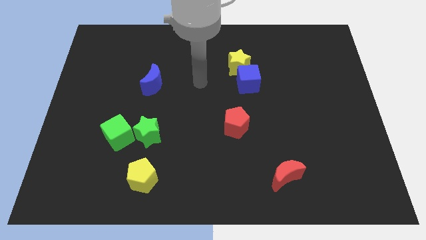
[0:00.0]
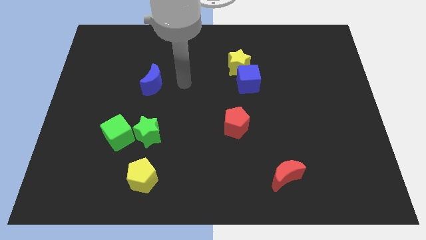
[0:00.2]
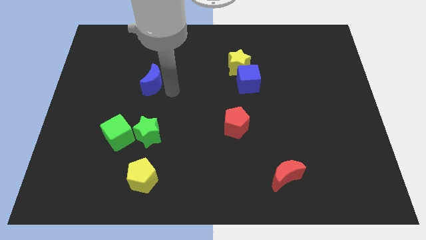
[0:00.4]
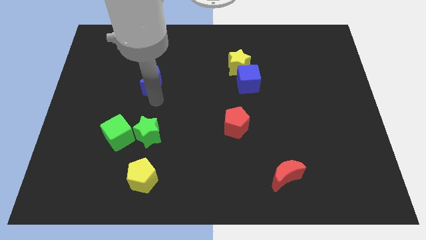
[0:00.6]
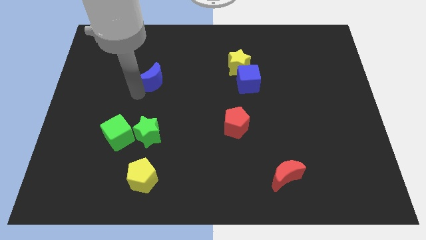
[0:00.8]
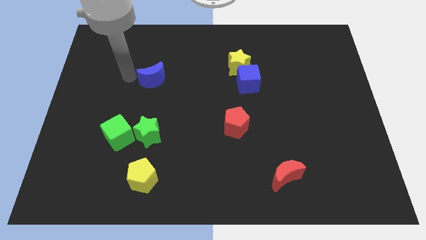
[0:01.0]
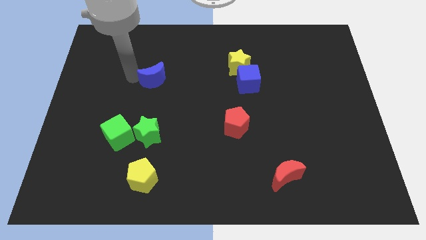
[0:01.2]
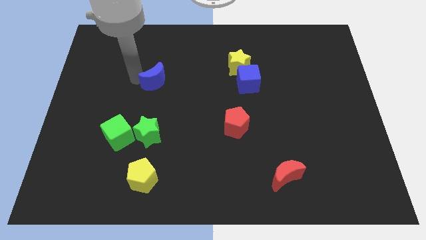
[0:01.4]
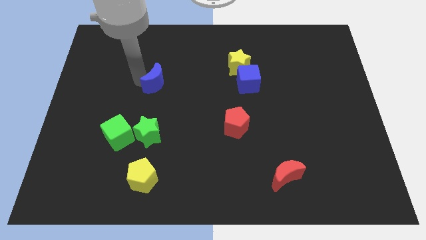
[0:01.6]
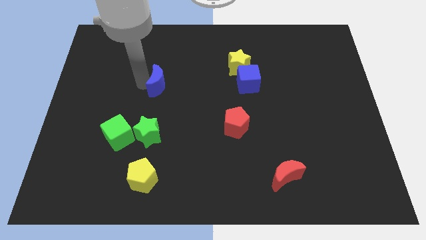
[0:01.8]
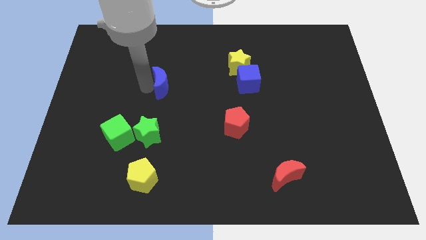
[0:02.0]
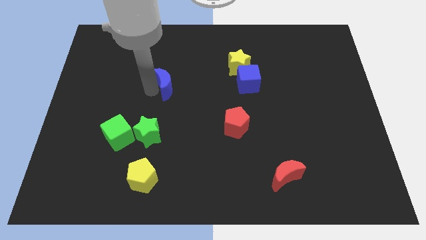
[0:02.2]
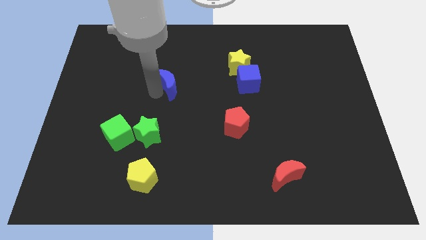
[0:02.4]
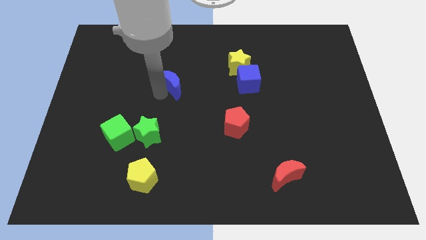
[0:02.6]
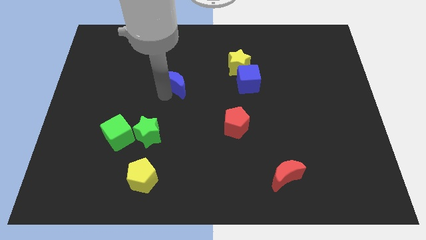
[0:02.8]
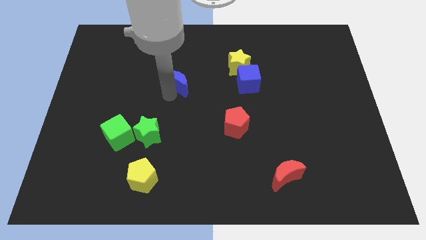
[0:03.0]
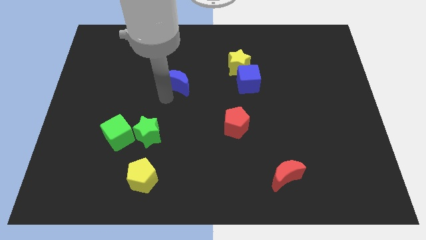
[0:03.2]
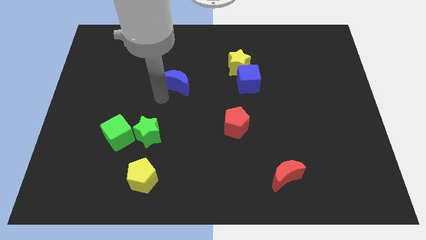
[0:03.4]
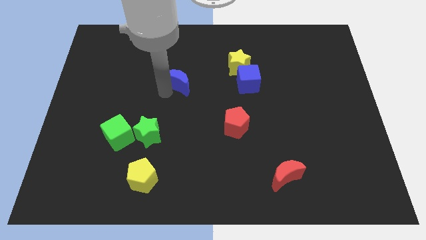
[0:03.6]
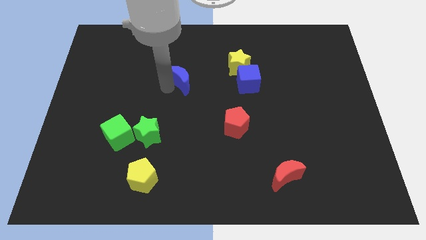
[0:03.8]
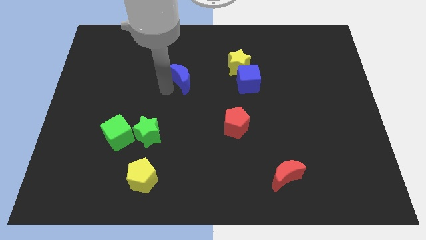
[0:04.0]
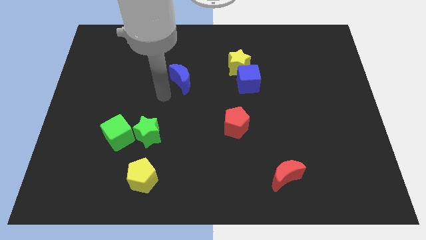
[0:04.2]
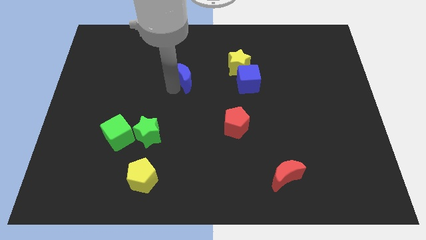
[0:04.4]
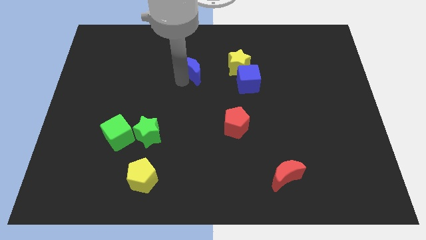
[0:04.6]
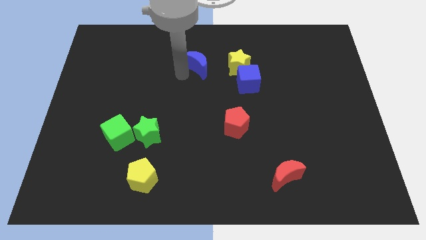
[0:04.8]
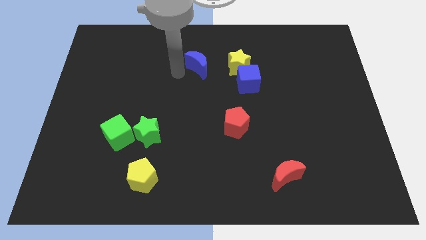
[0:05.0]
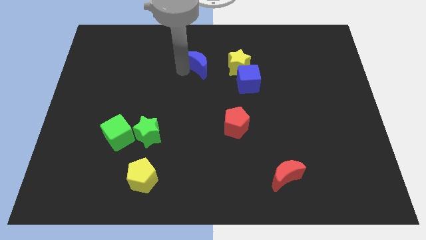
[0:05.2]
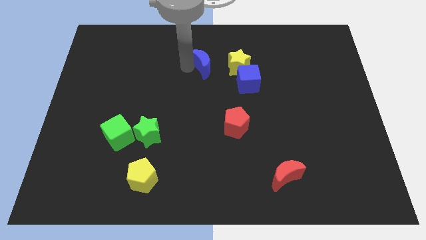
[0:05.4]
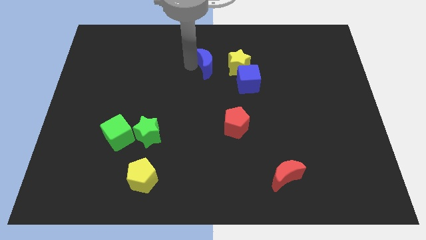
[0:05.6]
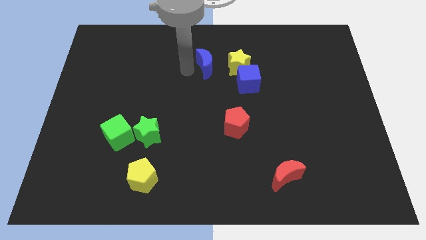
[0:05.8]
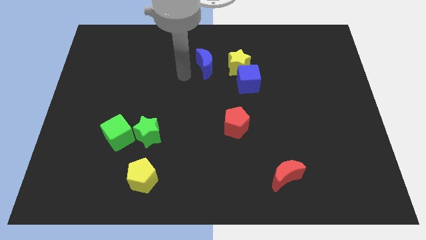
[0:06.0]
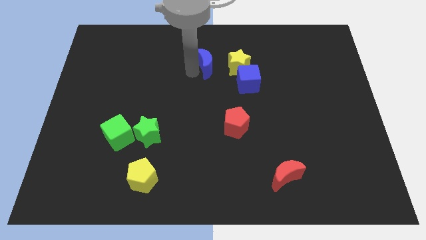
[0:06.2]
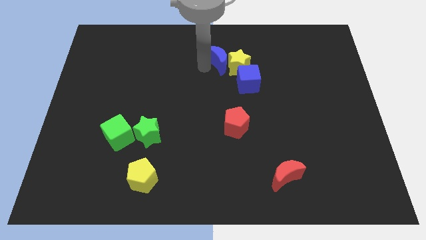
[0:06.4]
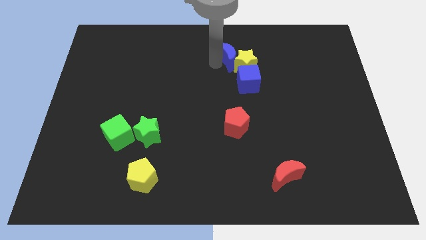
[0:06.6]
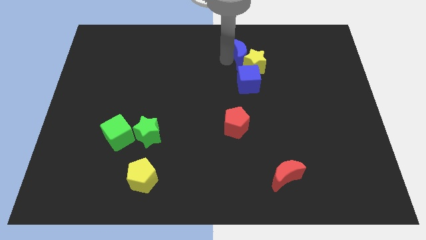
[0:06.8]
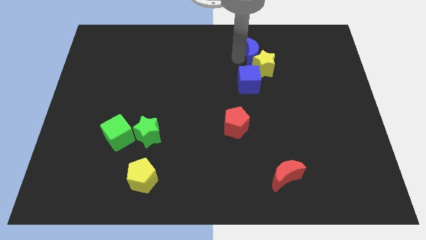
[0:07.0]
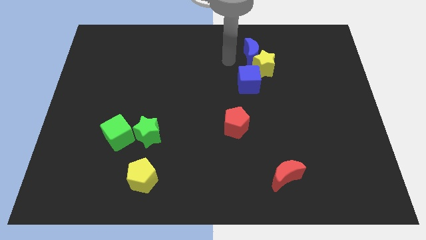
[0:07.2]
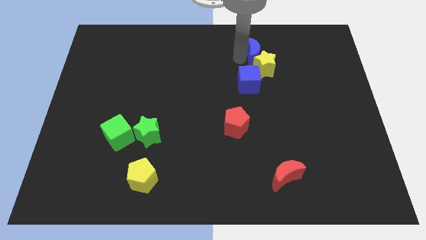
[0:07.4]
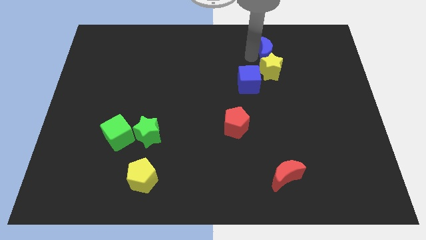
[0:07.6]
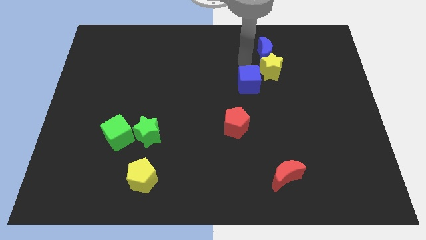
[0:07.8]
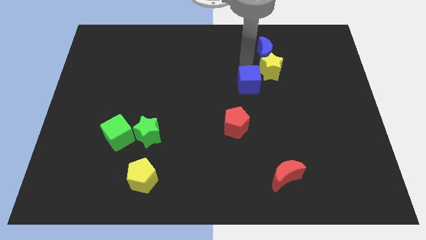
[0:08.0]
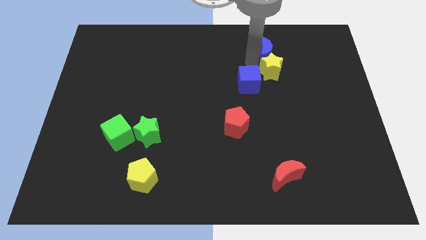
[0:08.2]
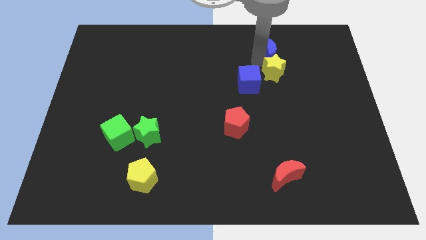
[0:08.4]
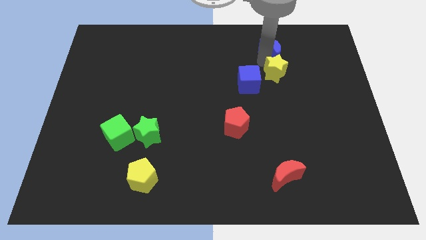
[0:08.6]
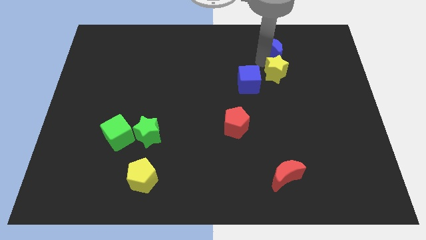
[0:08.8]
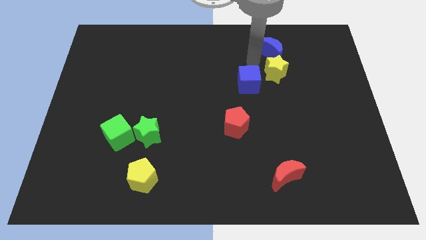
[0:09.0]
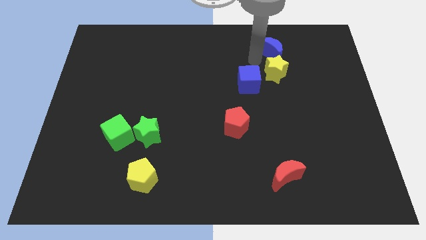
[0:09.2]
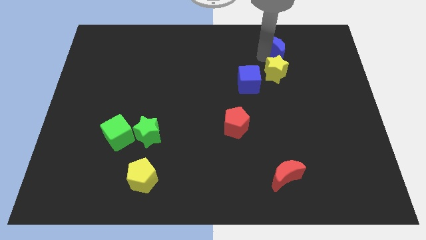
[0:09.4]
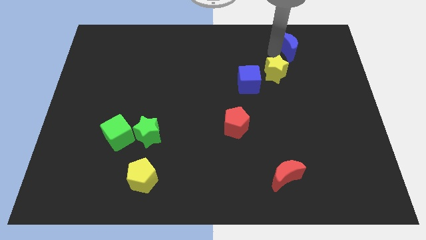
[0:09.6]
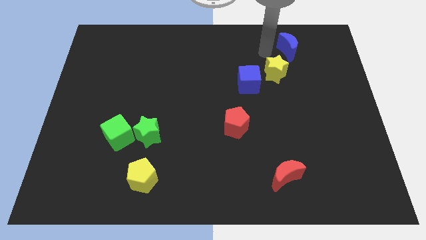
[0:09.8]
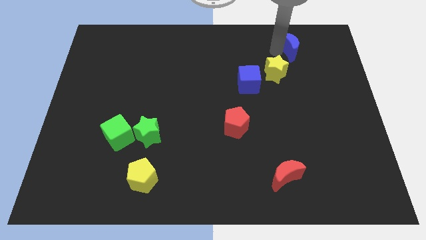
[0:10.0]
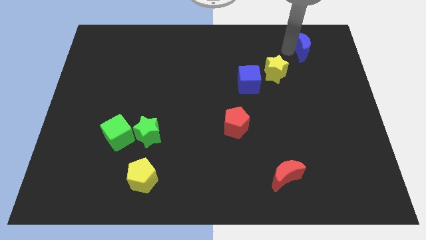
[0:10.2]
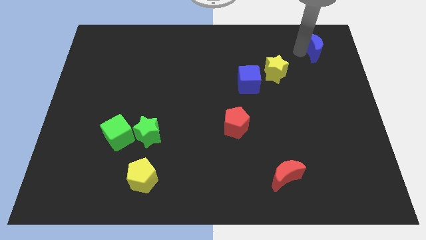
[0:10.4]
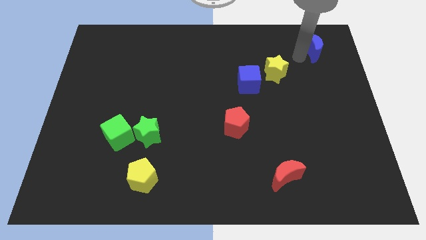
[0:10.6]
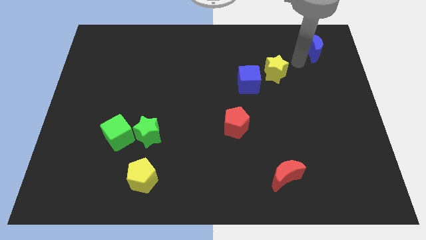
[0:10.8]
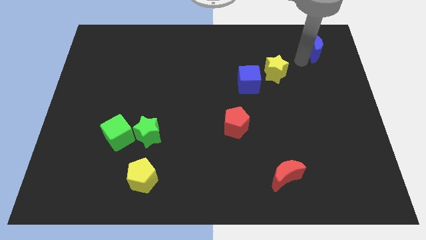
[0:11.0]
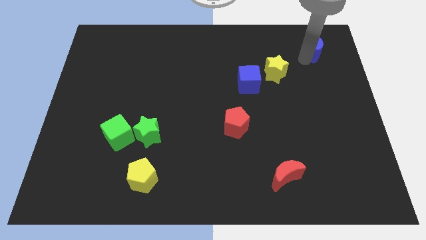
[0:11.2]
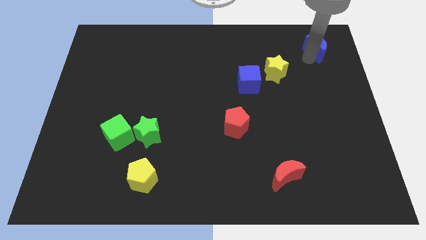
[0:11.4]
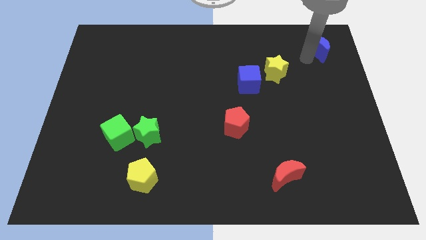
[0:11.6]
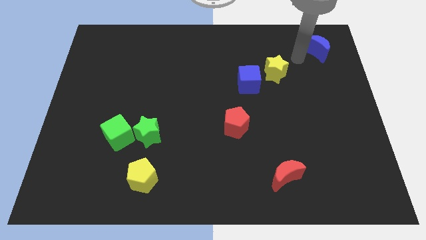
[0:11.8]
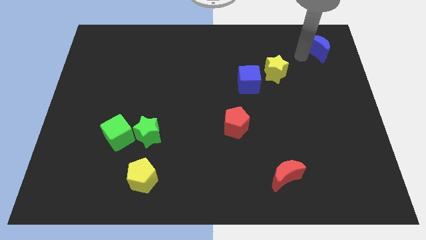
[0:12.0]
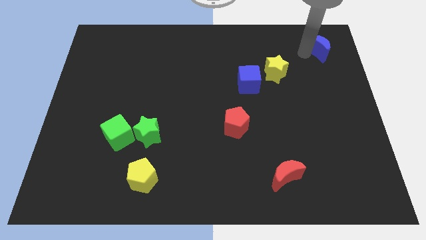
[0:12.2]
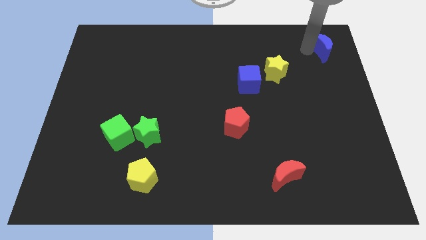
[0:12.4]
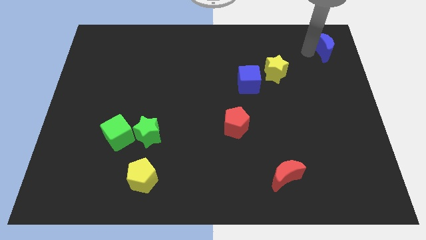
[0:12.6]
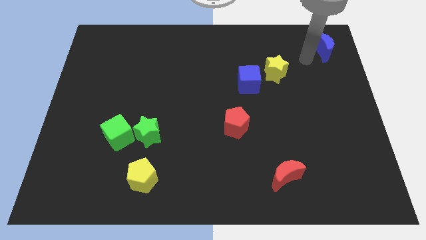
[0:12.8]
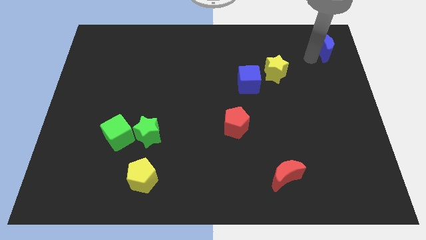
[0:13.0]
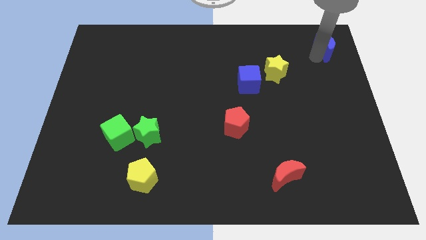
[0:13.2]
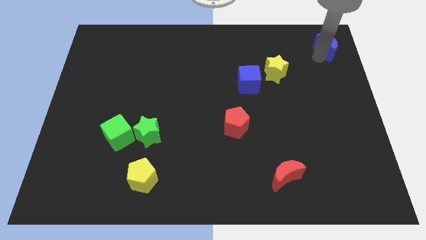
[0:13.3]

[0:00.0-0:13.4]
push the blue moon to the top right
